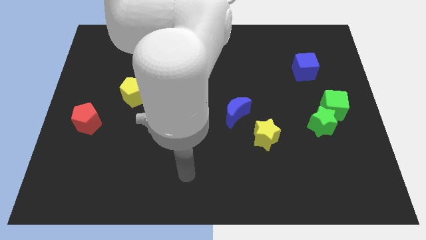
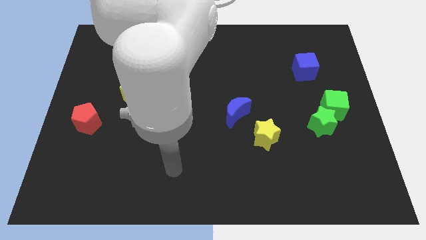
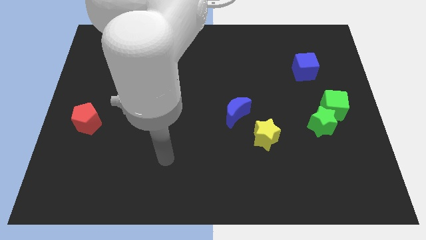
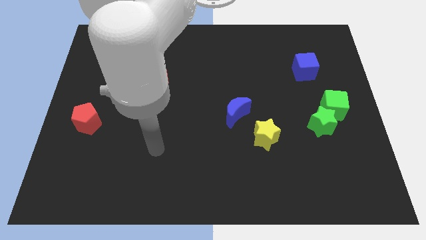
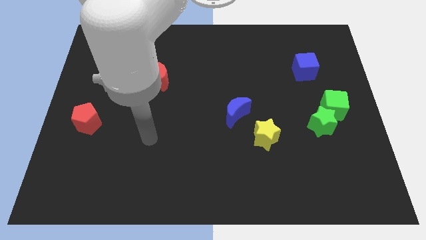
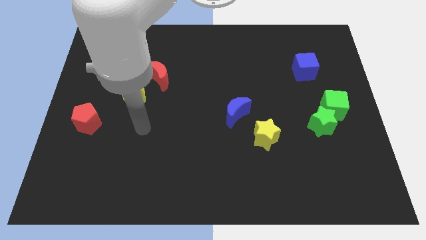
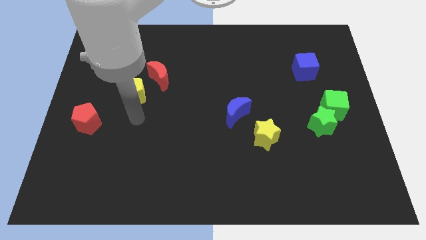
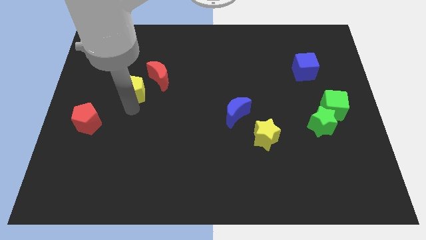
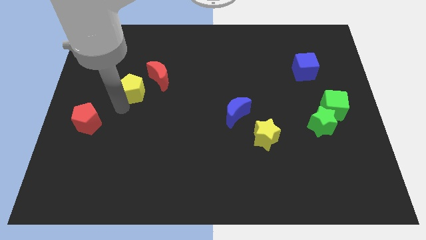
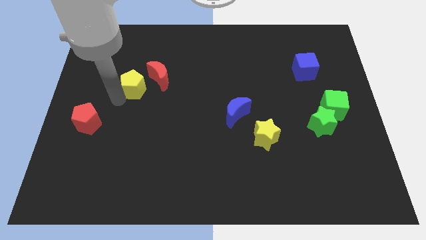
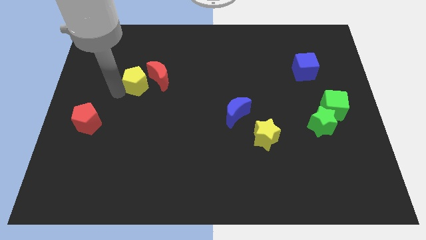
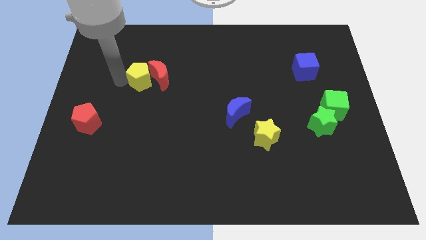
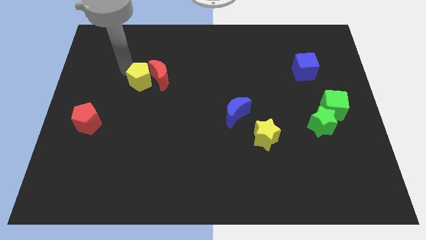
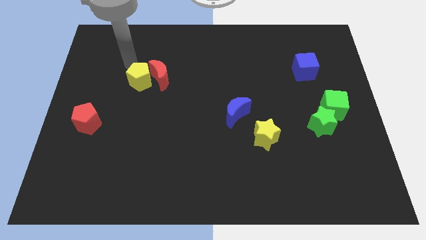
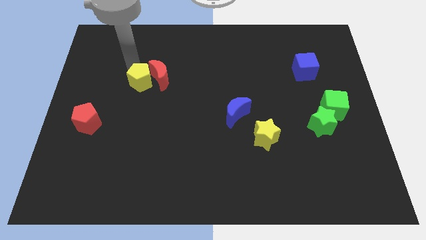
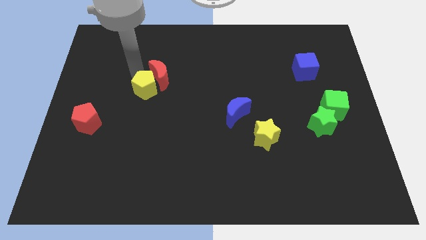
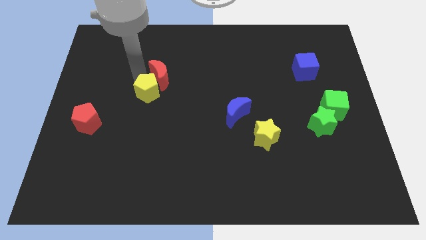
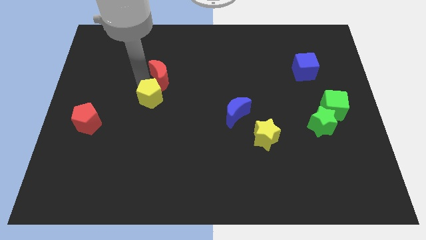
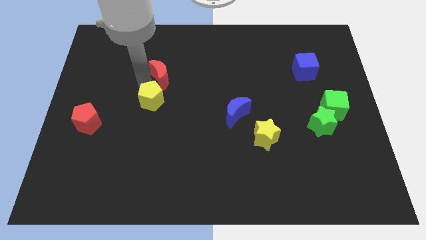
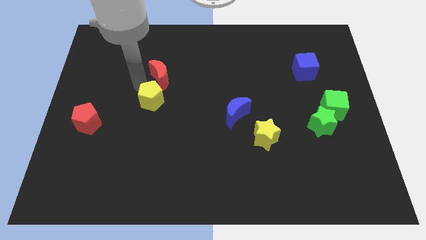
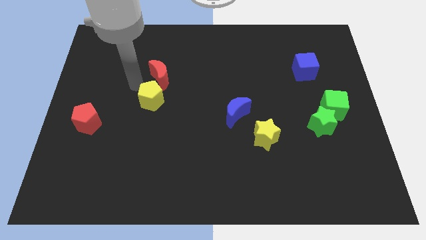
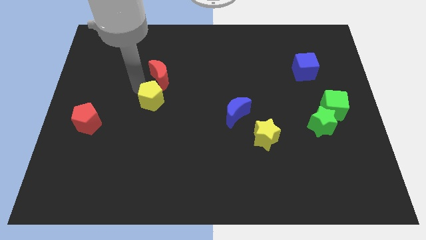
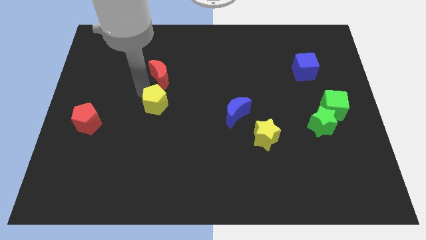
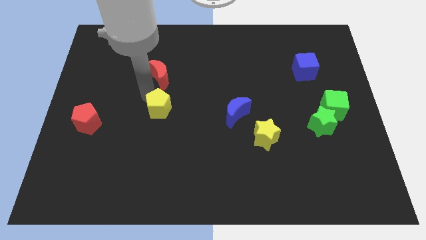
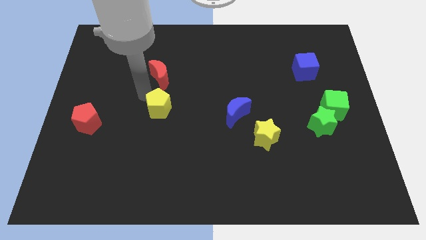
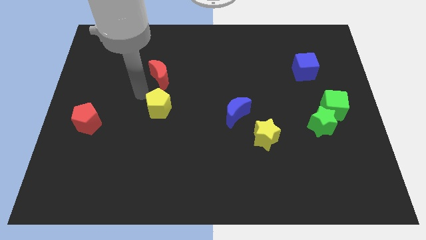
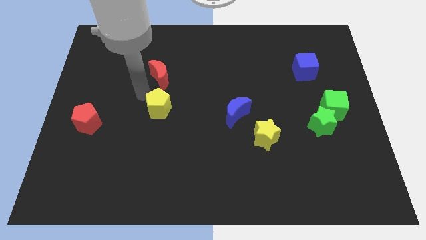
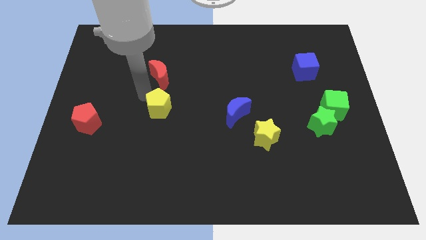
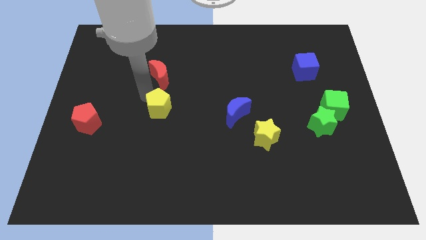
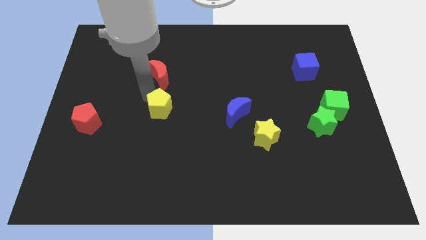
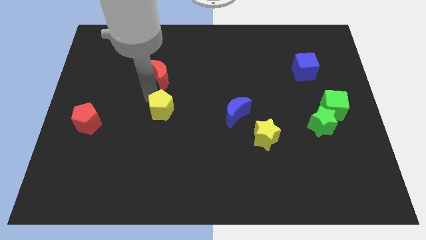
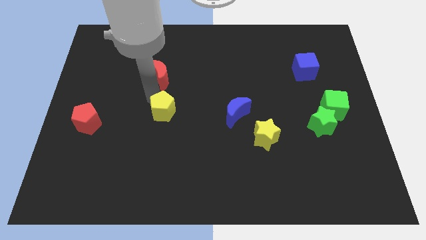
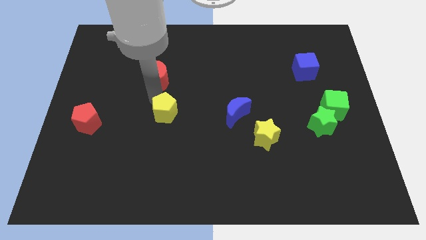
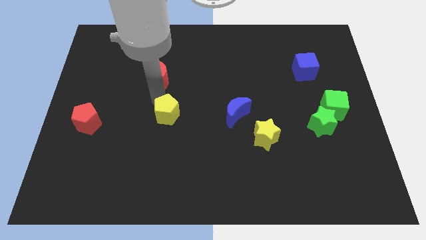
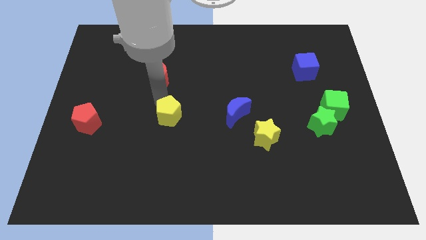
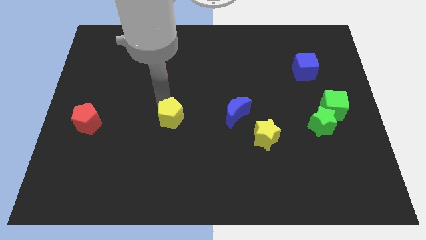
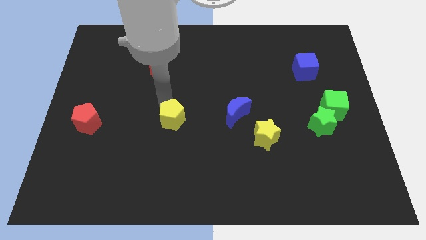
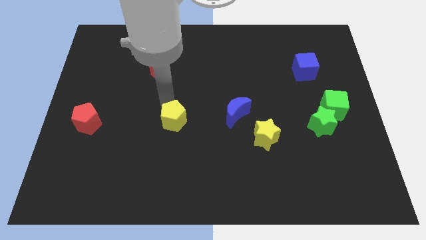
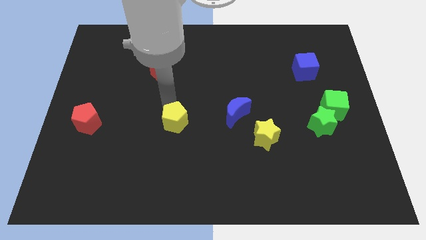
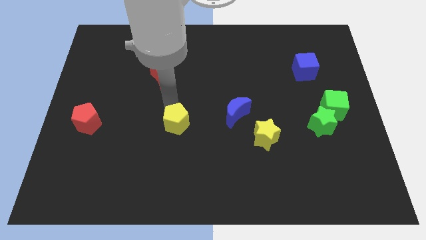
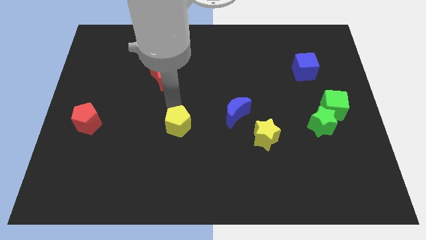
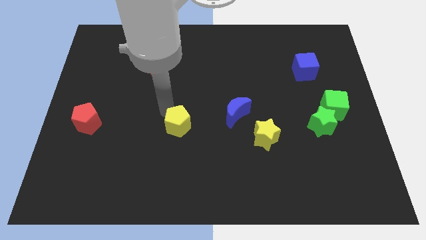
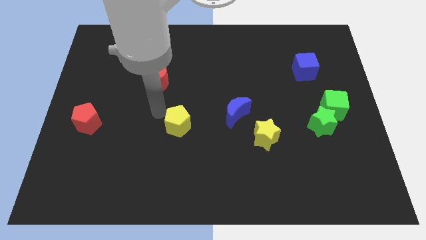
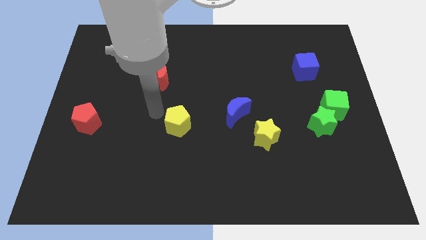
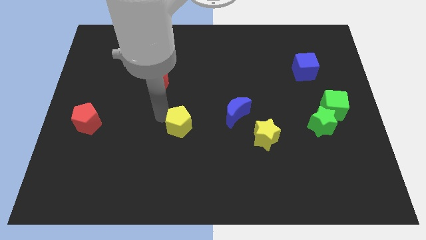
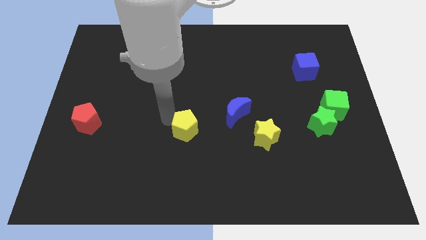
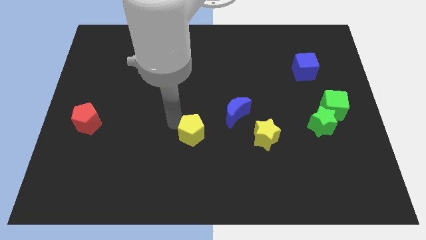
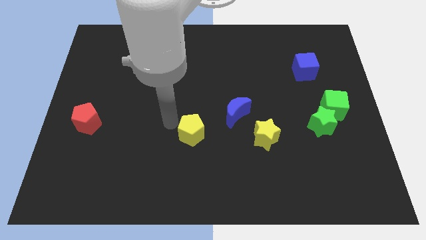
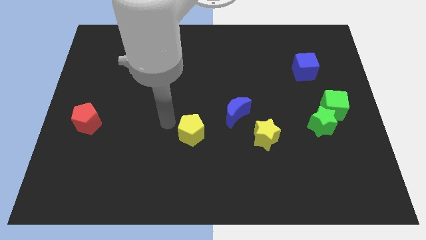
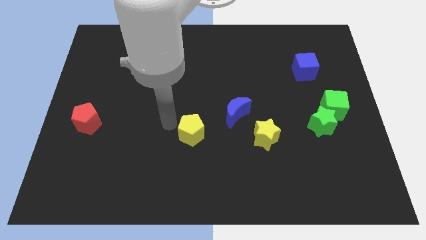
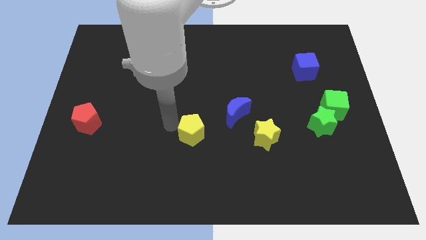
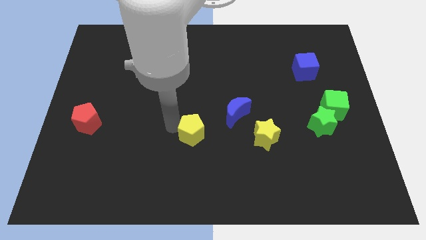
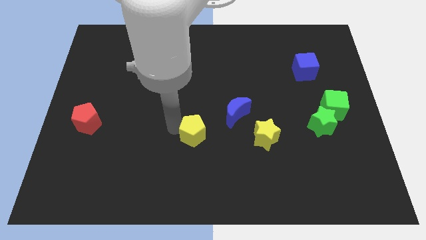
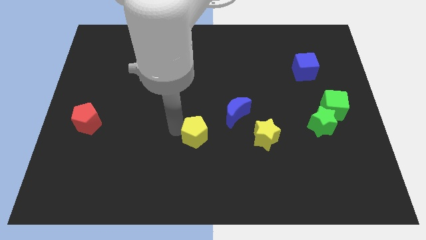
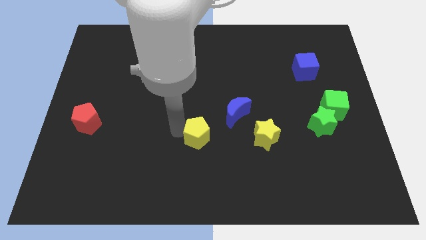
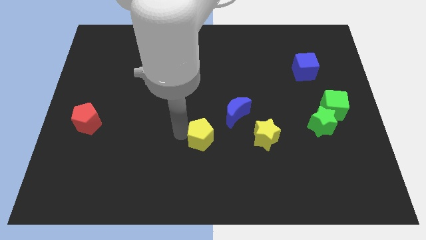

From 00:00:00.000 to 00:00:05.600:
move the yellow pentagon down and right

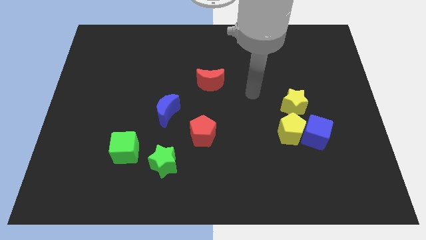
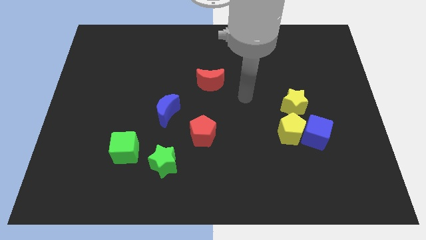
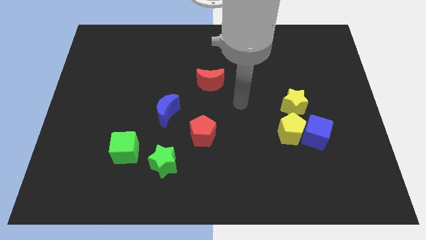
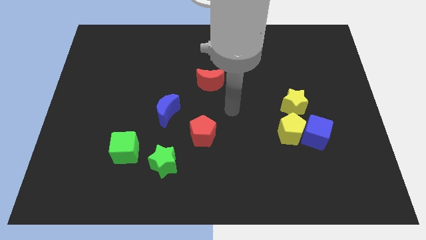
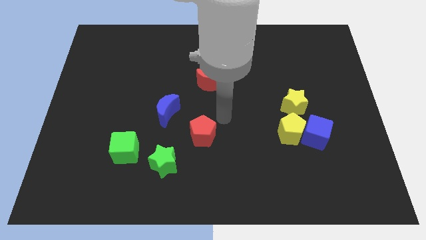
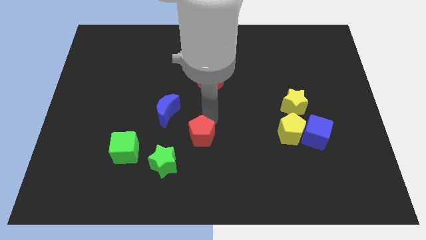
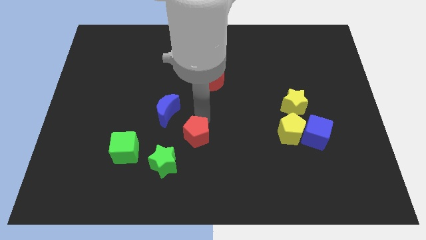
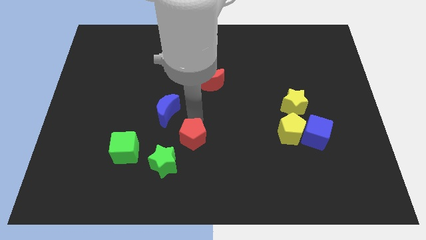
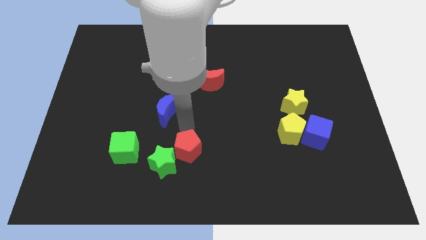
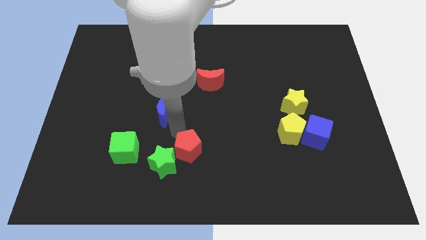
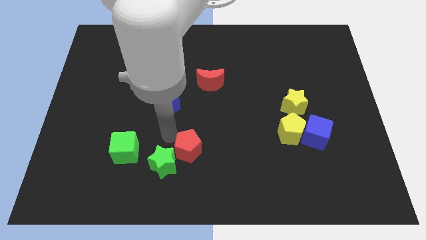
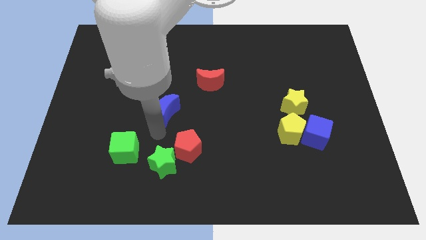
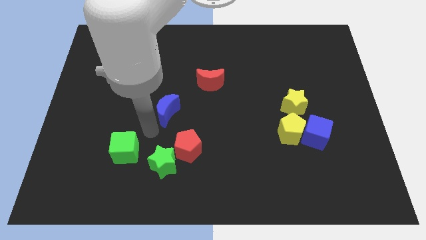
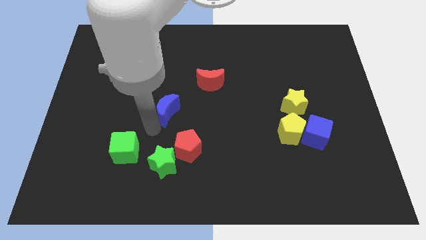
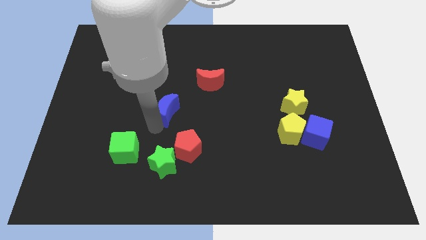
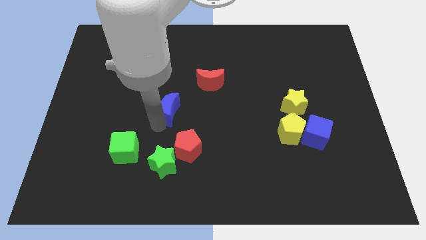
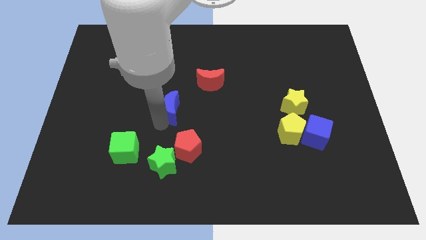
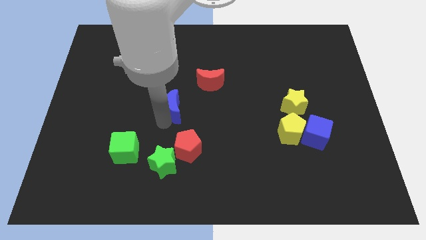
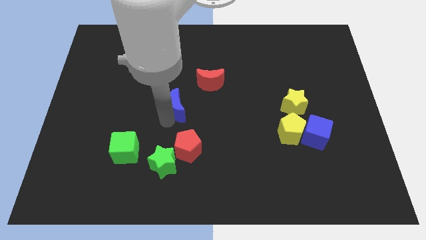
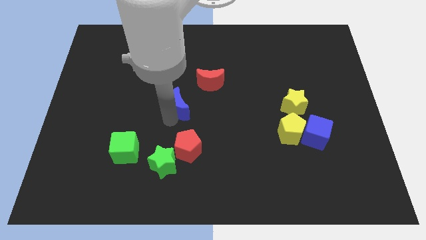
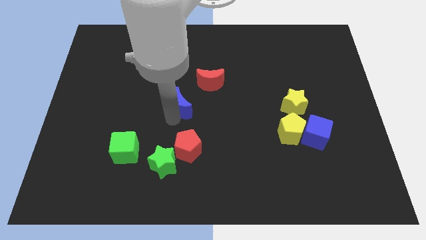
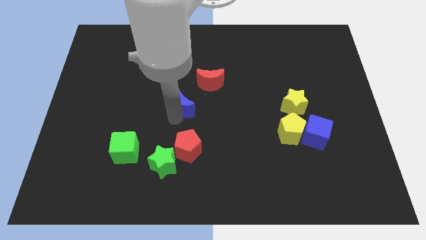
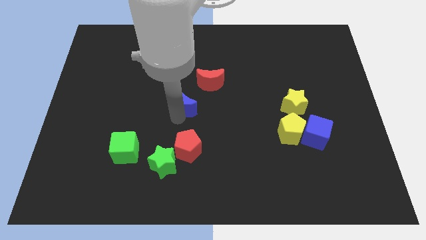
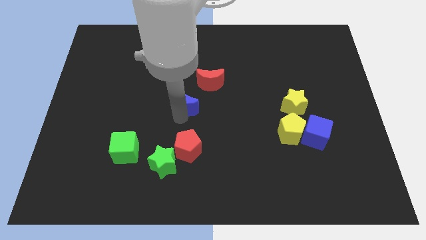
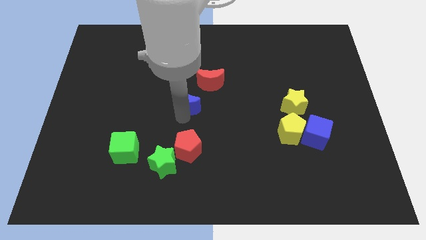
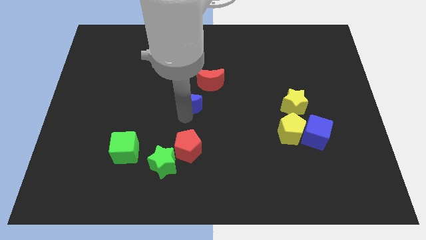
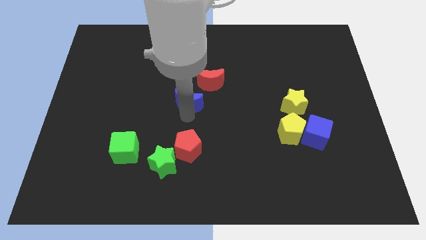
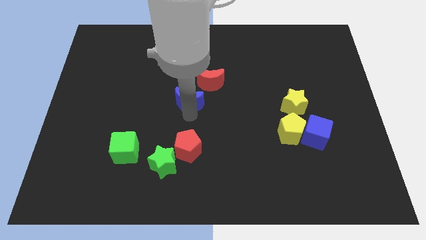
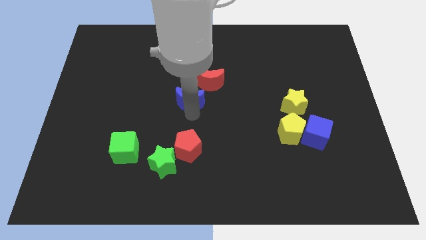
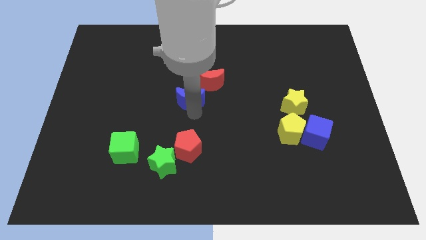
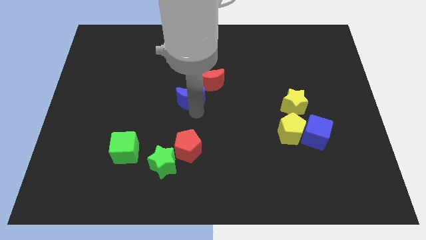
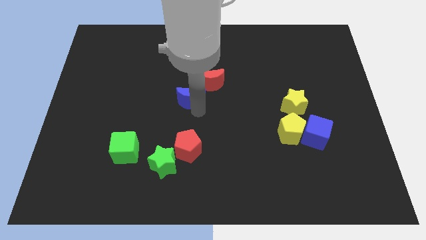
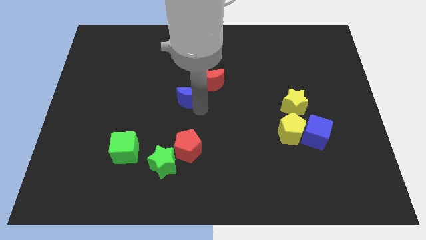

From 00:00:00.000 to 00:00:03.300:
move the blue moon a little bit diagonally upwards and to the right
